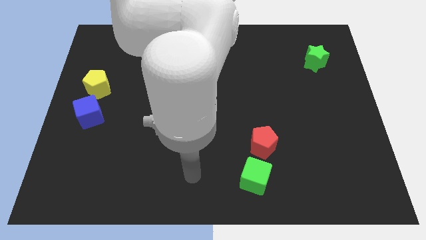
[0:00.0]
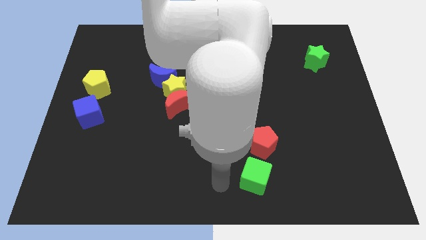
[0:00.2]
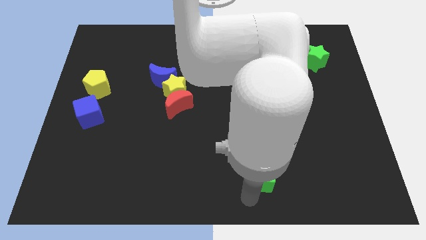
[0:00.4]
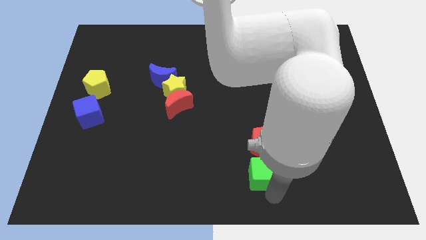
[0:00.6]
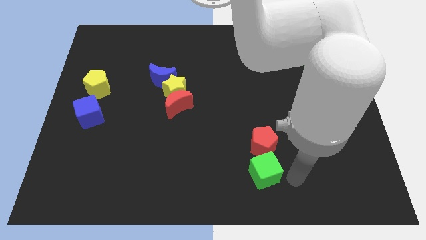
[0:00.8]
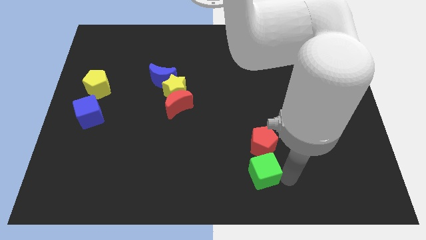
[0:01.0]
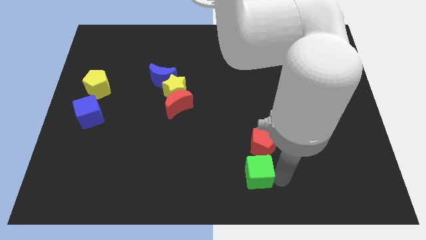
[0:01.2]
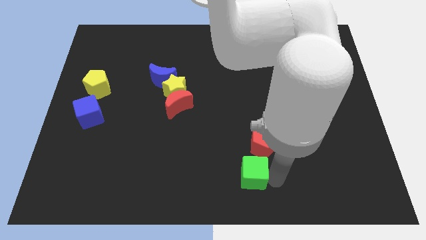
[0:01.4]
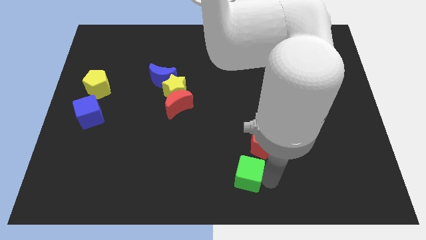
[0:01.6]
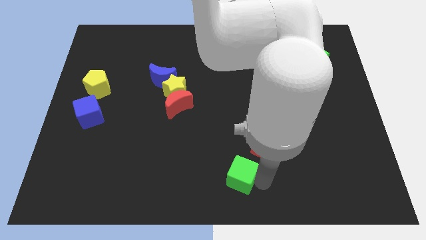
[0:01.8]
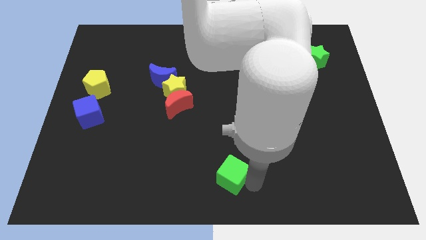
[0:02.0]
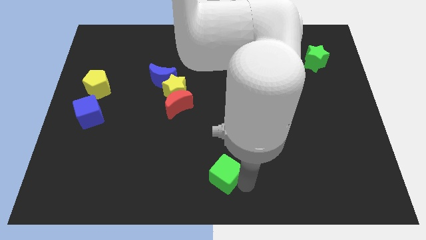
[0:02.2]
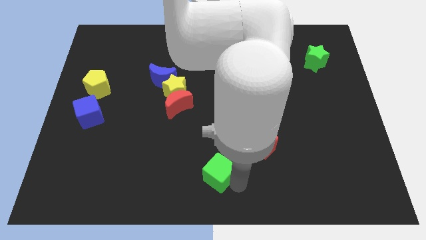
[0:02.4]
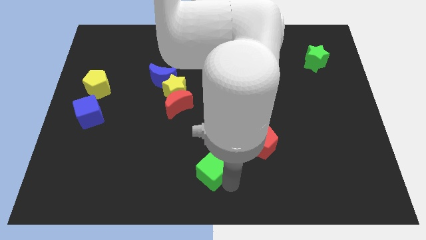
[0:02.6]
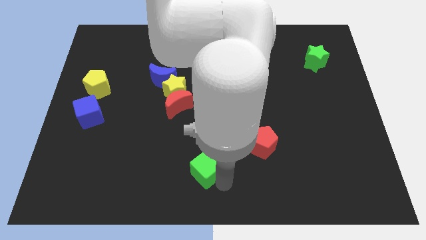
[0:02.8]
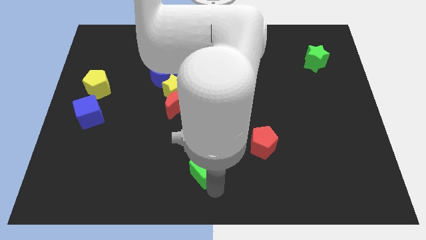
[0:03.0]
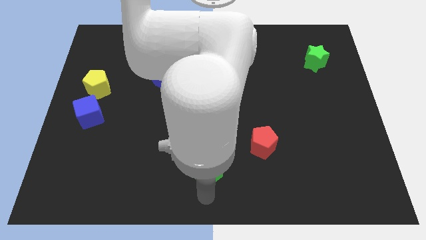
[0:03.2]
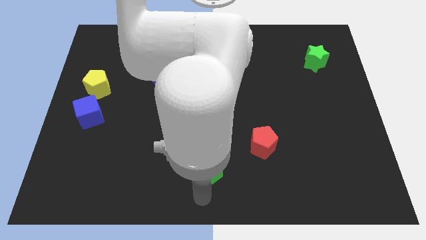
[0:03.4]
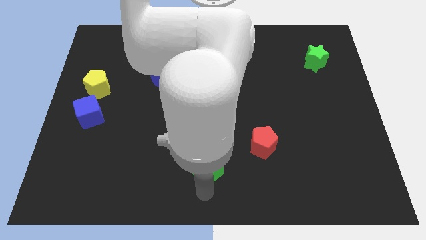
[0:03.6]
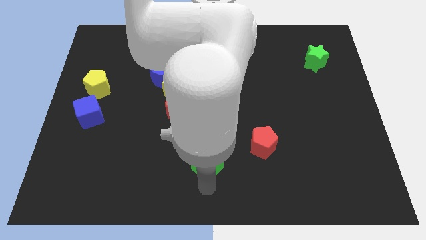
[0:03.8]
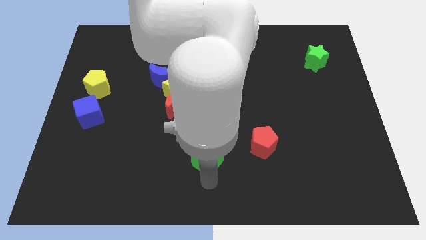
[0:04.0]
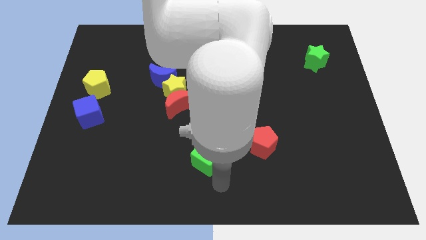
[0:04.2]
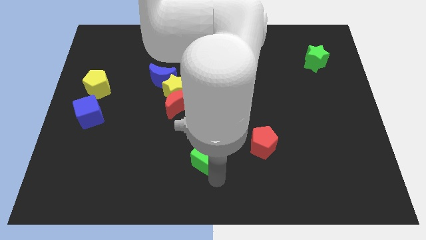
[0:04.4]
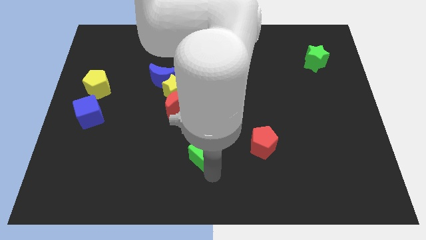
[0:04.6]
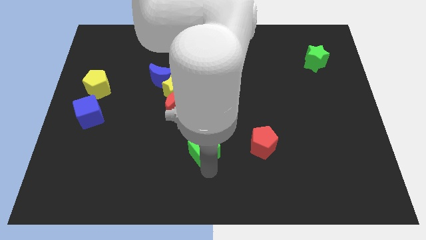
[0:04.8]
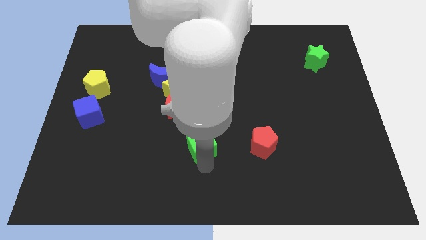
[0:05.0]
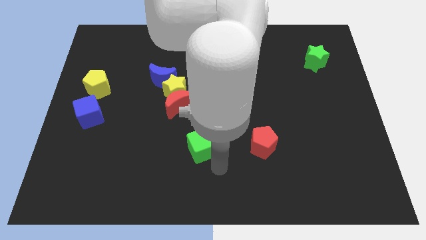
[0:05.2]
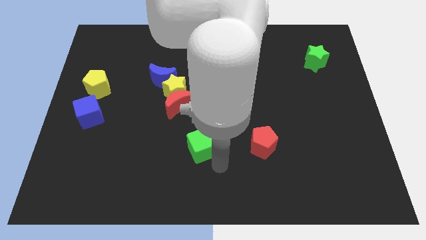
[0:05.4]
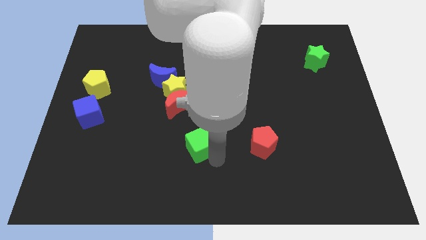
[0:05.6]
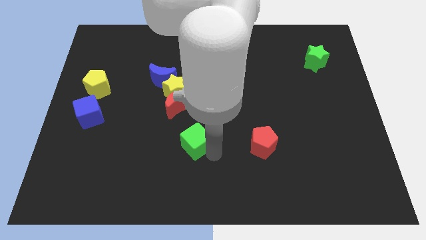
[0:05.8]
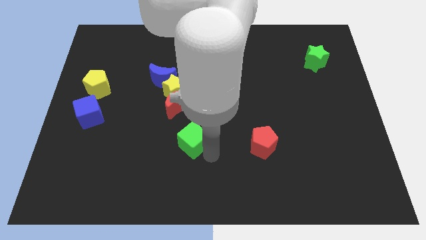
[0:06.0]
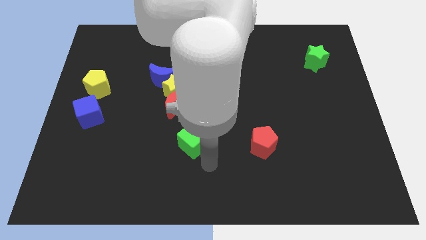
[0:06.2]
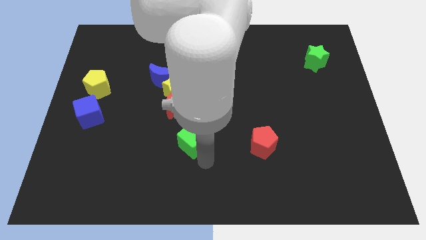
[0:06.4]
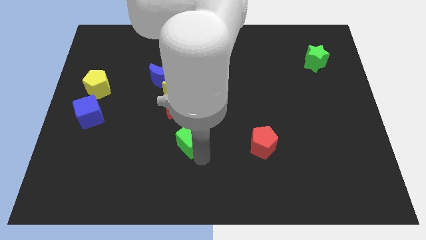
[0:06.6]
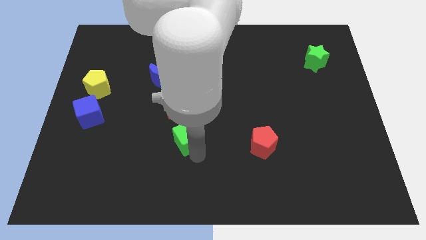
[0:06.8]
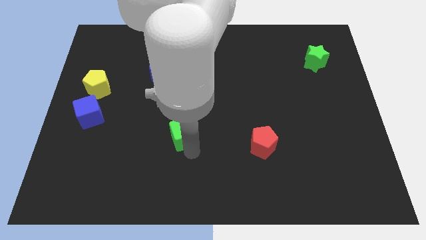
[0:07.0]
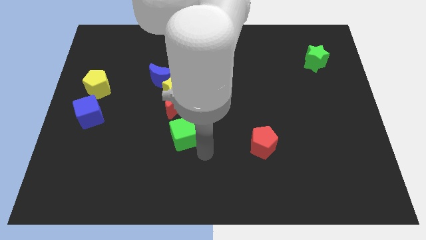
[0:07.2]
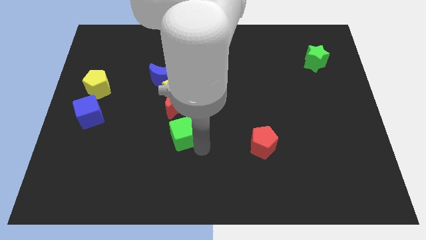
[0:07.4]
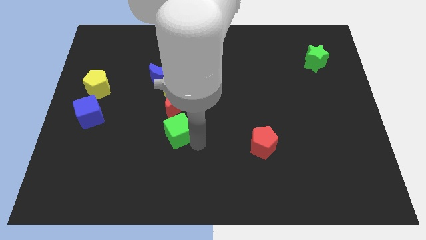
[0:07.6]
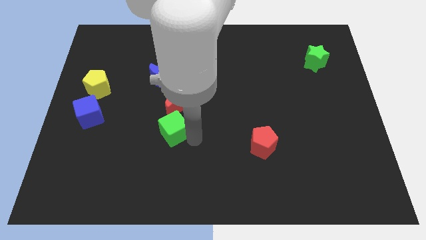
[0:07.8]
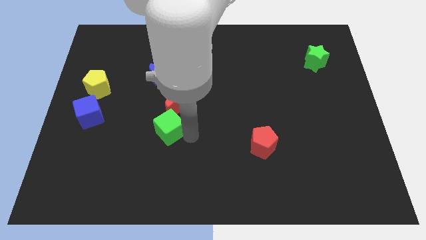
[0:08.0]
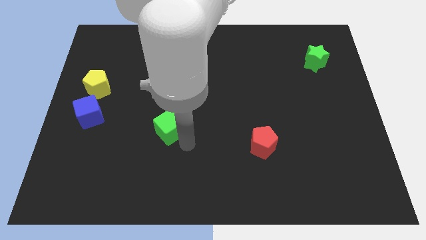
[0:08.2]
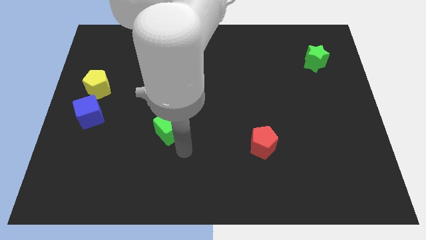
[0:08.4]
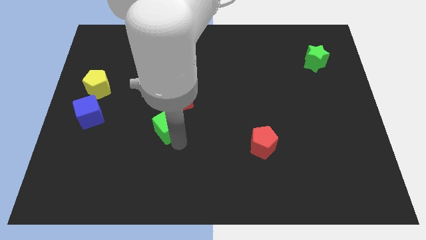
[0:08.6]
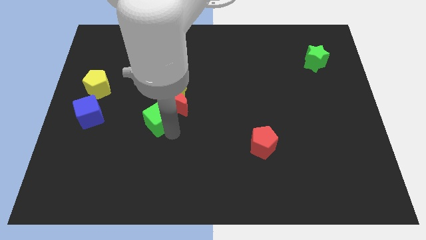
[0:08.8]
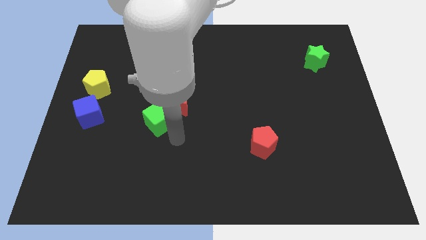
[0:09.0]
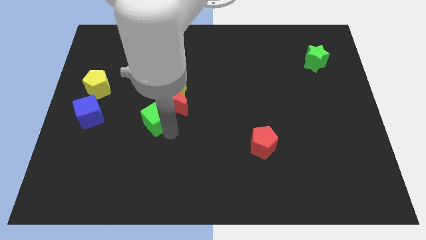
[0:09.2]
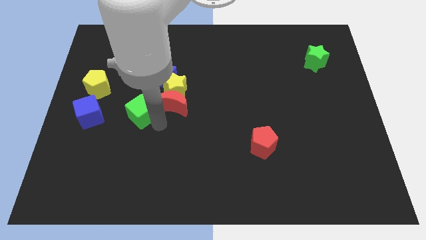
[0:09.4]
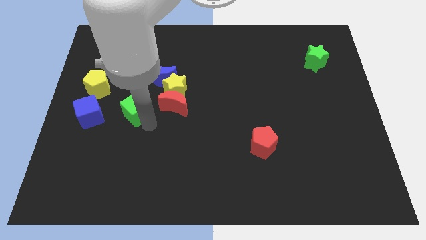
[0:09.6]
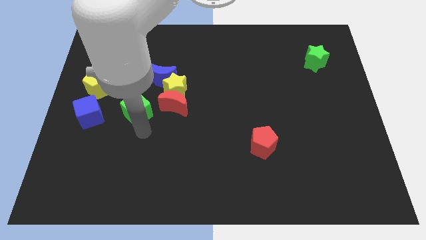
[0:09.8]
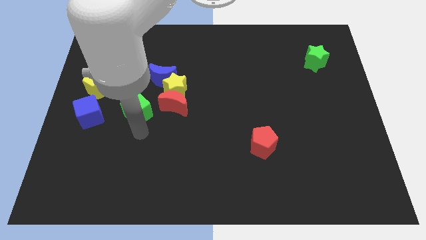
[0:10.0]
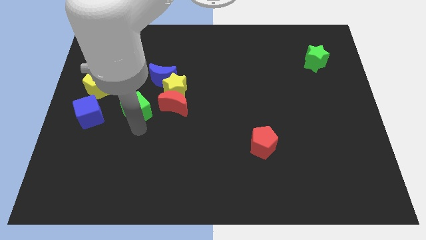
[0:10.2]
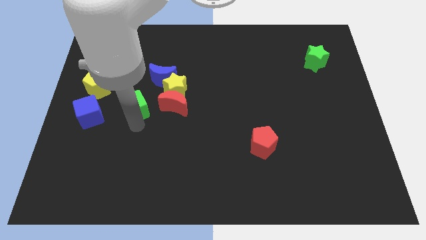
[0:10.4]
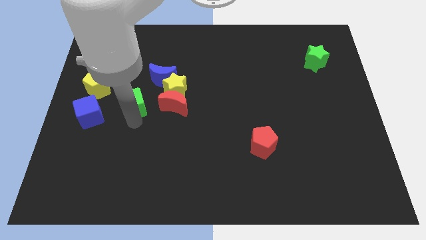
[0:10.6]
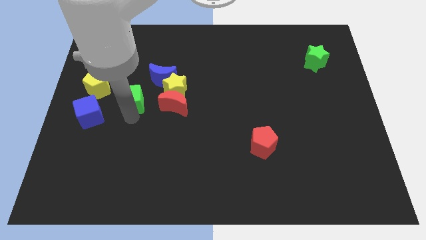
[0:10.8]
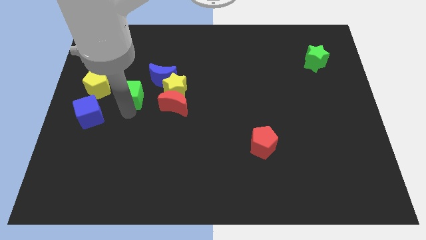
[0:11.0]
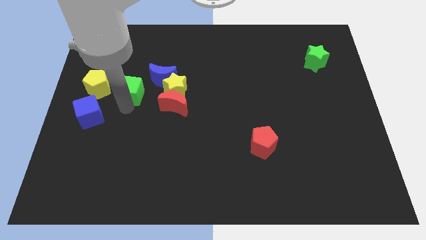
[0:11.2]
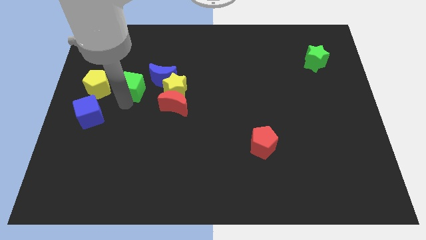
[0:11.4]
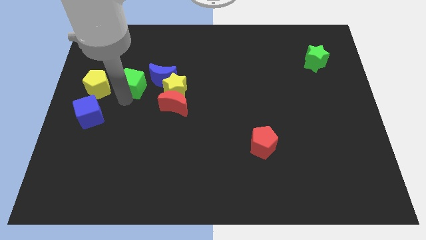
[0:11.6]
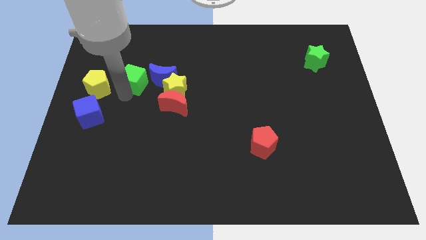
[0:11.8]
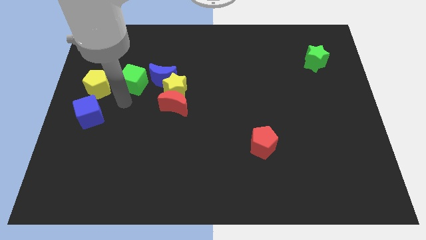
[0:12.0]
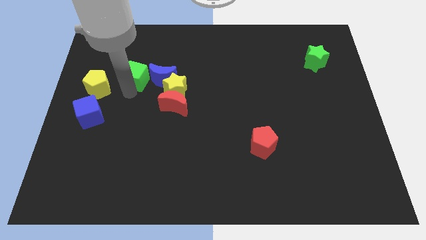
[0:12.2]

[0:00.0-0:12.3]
slide the green cube diagonally up and to the left of the blue moon
